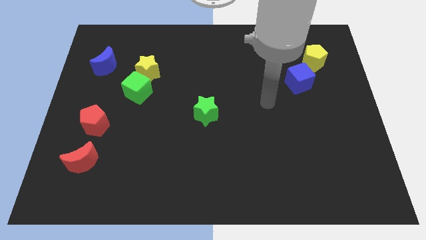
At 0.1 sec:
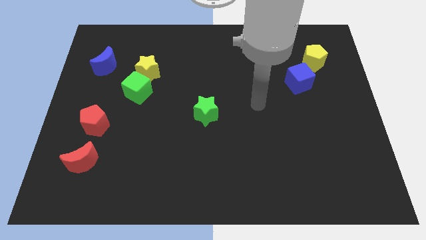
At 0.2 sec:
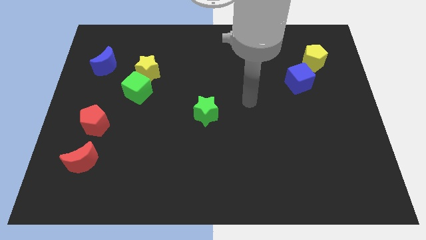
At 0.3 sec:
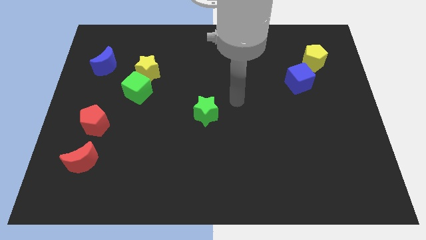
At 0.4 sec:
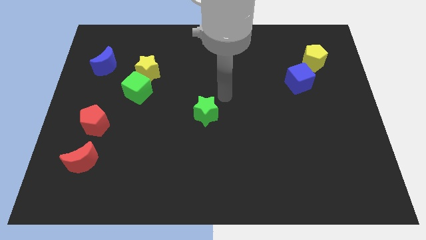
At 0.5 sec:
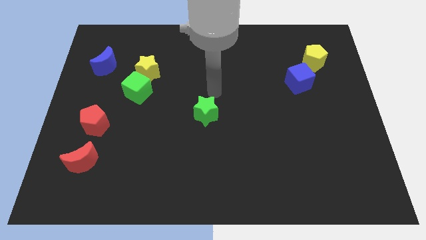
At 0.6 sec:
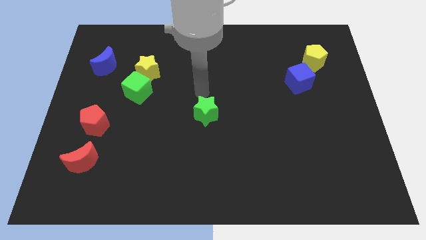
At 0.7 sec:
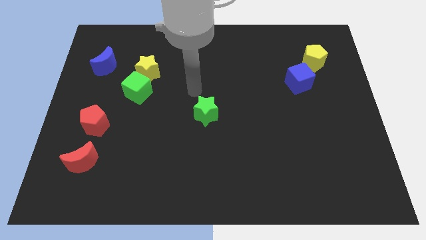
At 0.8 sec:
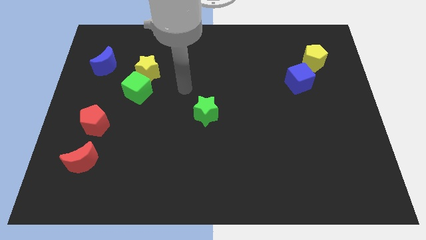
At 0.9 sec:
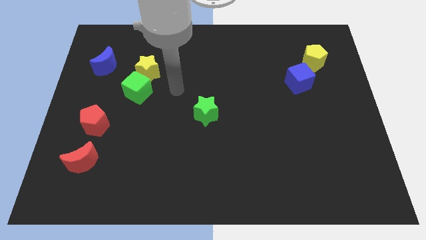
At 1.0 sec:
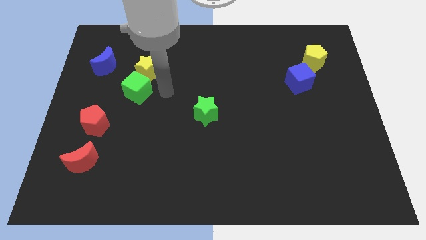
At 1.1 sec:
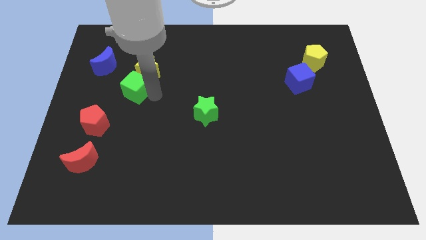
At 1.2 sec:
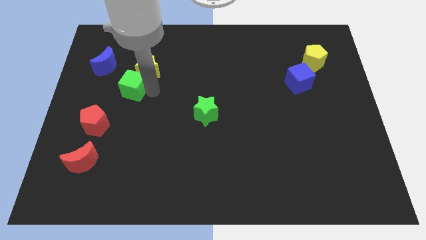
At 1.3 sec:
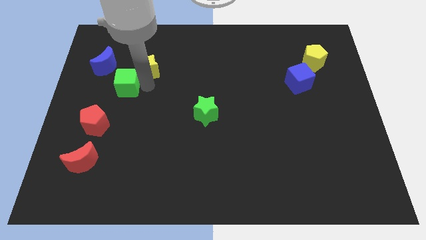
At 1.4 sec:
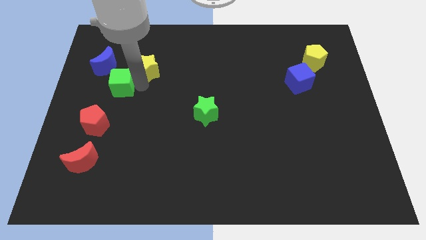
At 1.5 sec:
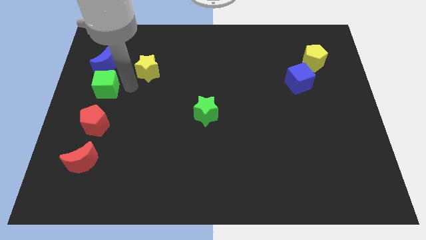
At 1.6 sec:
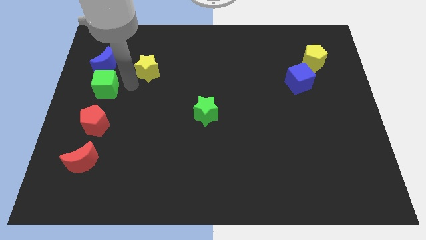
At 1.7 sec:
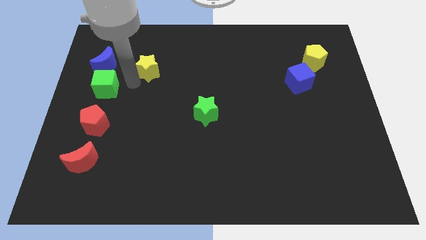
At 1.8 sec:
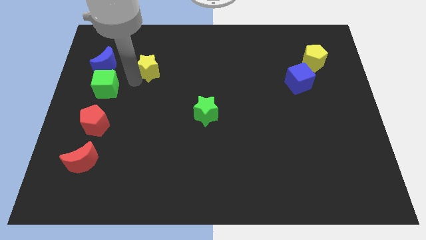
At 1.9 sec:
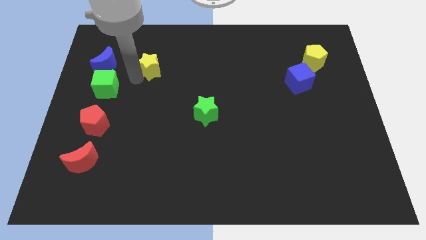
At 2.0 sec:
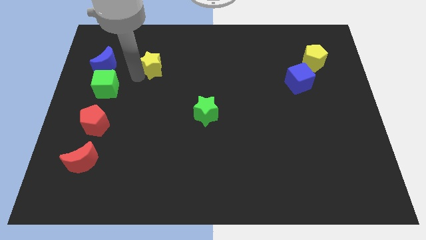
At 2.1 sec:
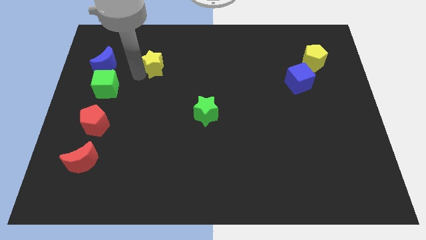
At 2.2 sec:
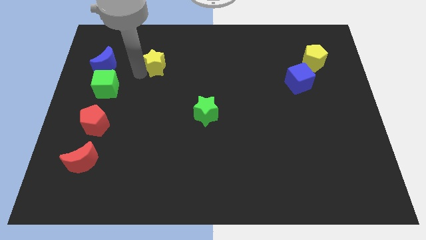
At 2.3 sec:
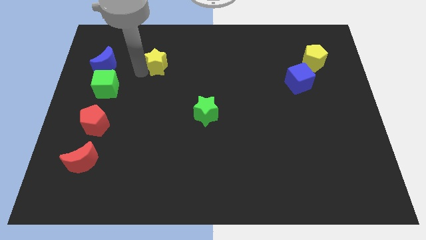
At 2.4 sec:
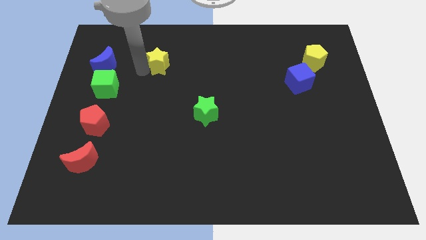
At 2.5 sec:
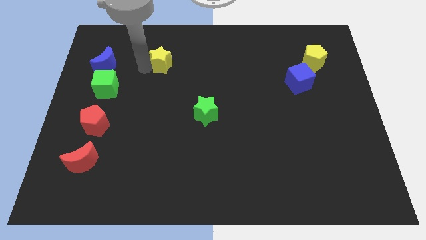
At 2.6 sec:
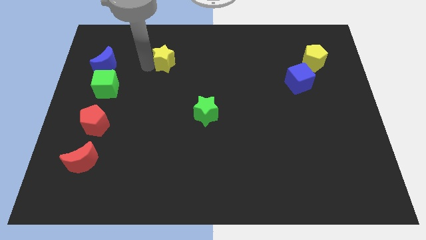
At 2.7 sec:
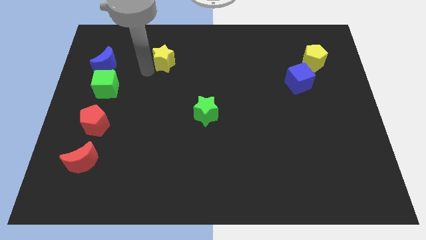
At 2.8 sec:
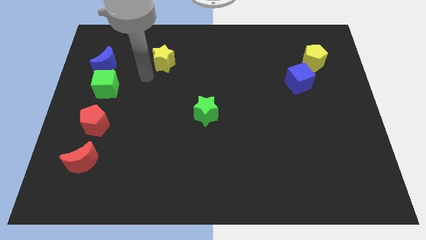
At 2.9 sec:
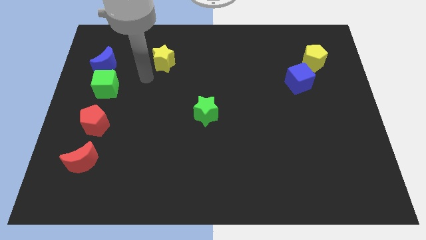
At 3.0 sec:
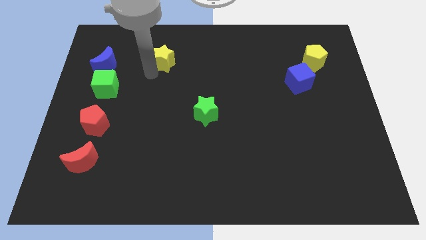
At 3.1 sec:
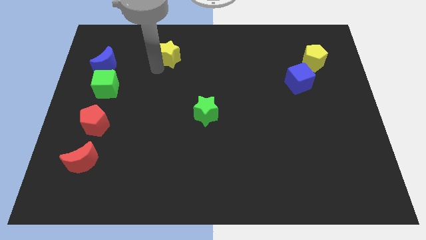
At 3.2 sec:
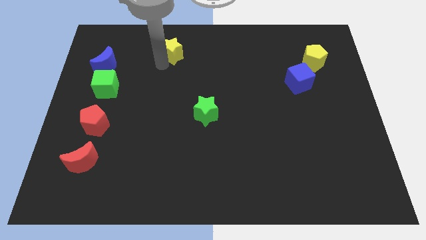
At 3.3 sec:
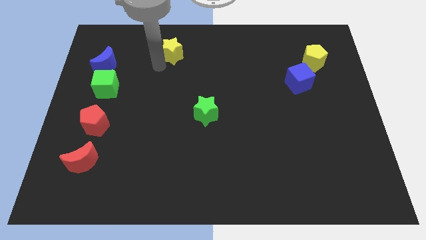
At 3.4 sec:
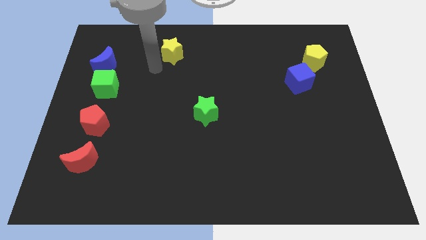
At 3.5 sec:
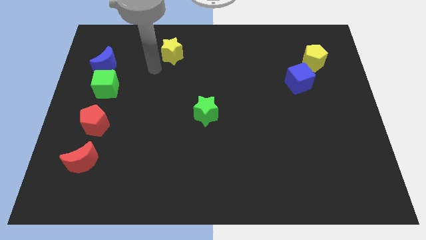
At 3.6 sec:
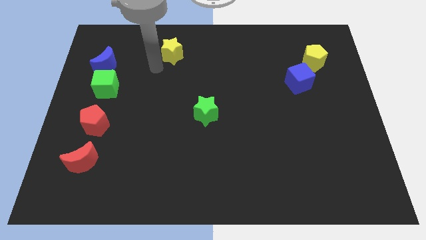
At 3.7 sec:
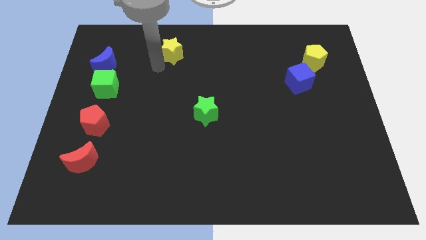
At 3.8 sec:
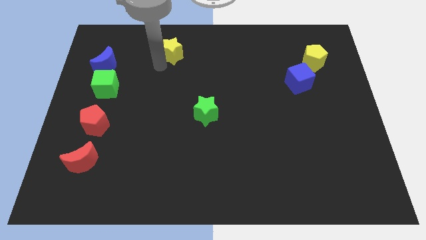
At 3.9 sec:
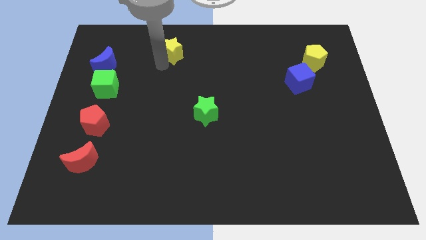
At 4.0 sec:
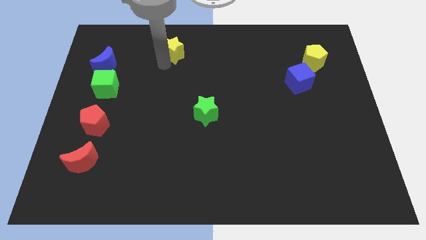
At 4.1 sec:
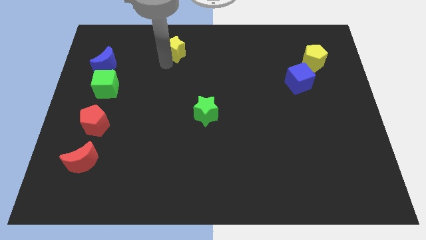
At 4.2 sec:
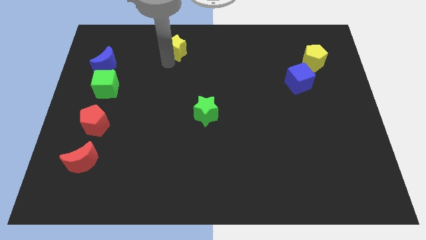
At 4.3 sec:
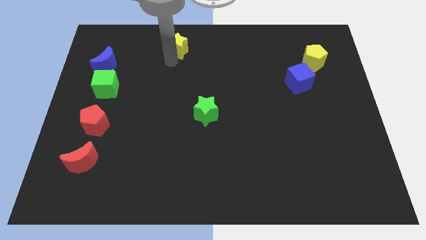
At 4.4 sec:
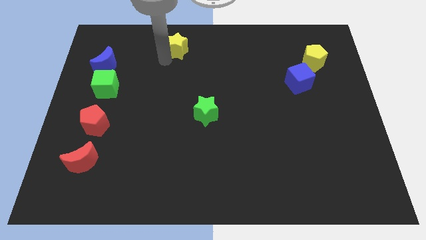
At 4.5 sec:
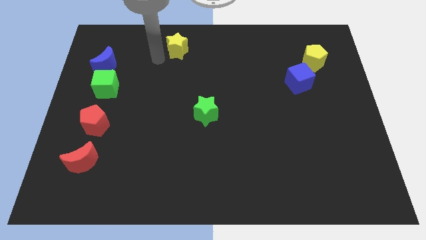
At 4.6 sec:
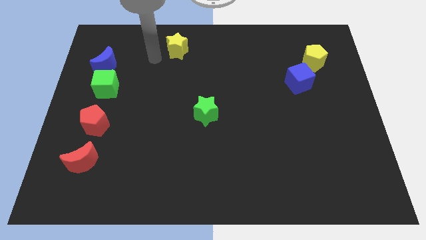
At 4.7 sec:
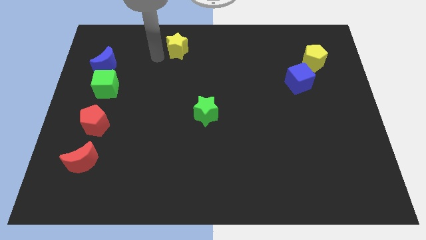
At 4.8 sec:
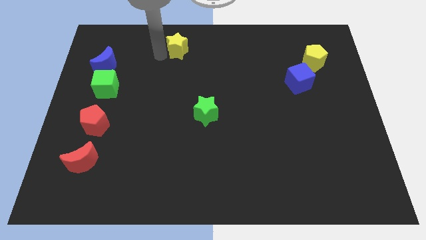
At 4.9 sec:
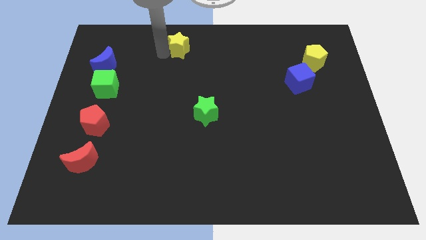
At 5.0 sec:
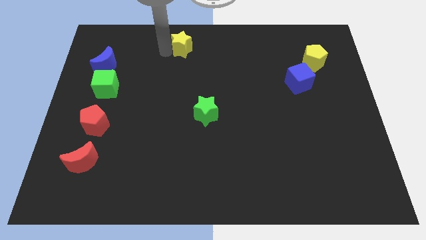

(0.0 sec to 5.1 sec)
put the yellow star to the towards your base

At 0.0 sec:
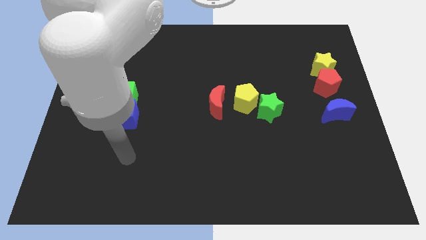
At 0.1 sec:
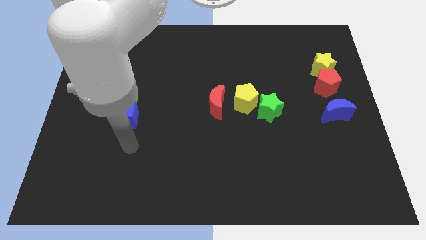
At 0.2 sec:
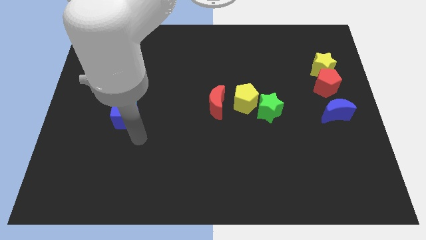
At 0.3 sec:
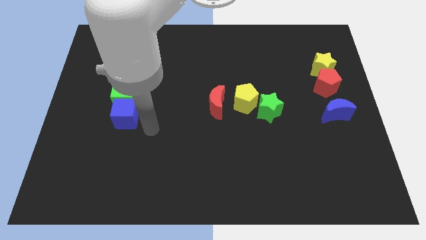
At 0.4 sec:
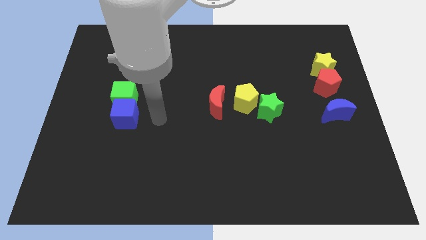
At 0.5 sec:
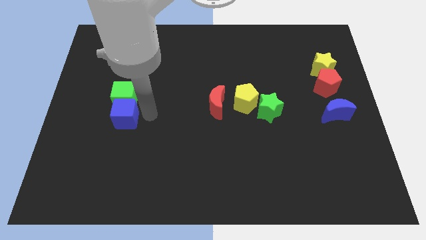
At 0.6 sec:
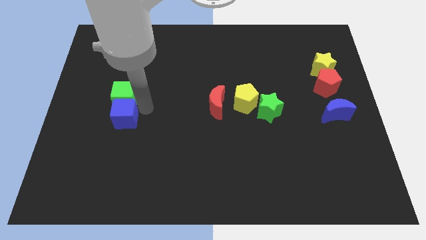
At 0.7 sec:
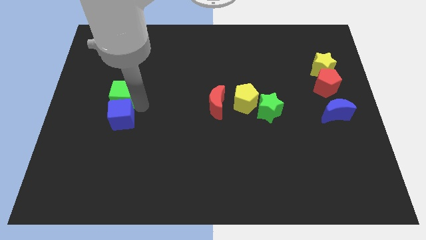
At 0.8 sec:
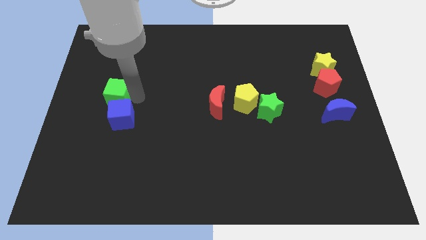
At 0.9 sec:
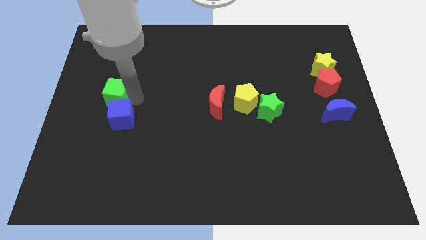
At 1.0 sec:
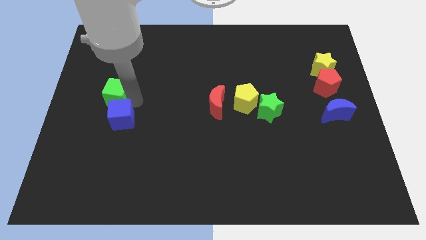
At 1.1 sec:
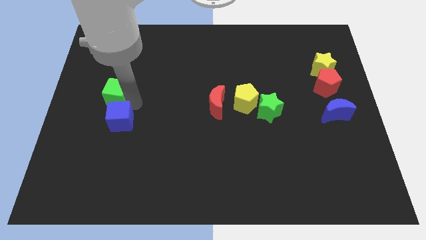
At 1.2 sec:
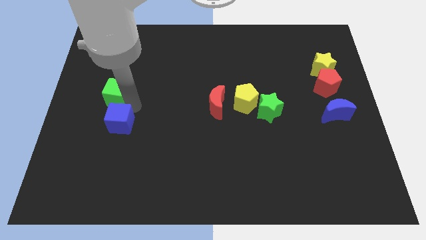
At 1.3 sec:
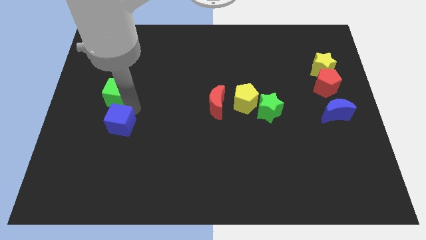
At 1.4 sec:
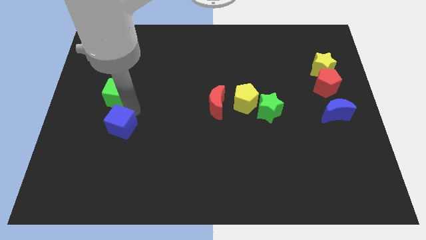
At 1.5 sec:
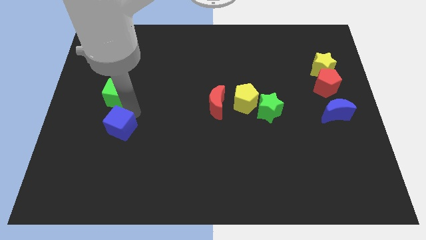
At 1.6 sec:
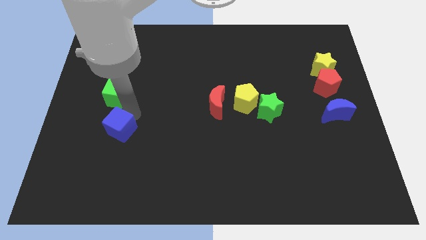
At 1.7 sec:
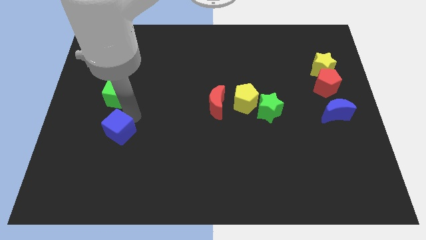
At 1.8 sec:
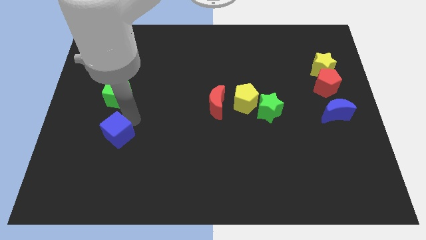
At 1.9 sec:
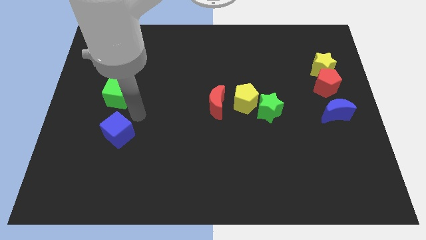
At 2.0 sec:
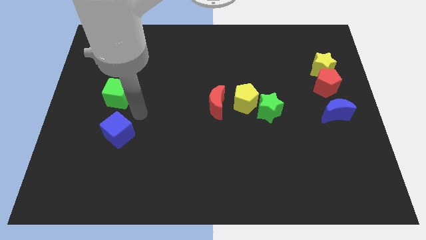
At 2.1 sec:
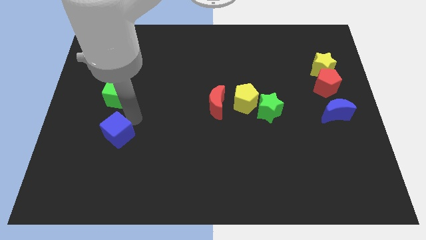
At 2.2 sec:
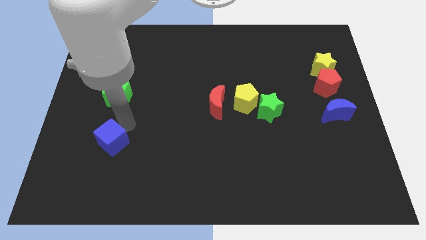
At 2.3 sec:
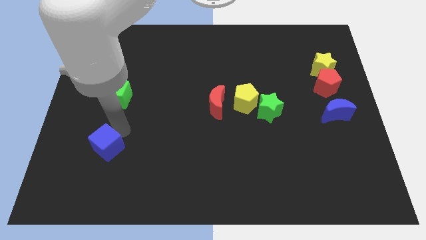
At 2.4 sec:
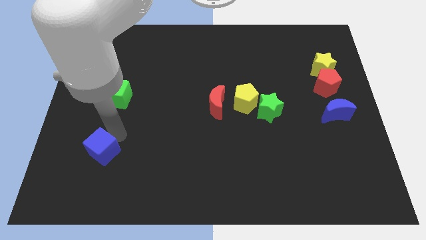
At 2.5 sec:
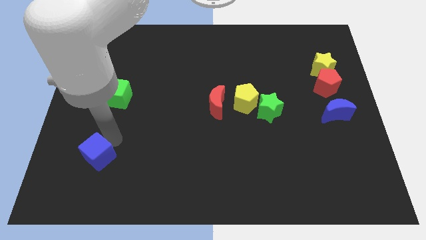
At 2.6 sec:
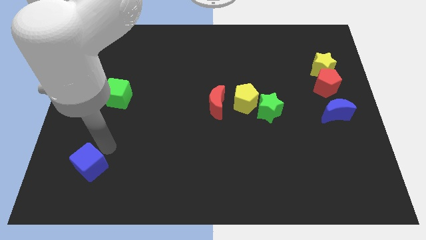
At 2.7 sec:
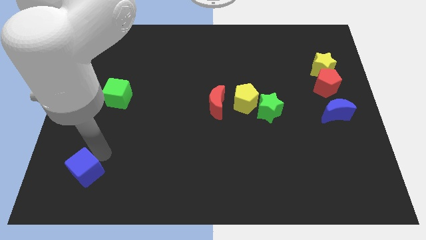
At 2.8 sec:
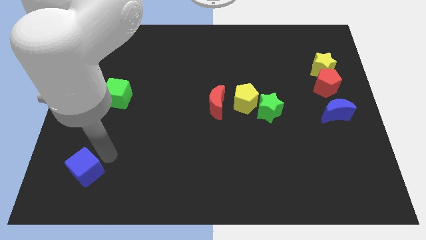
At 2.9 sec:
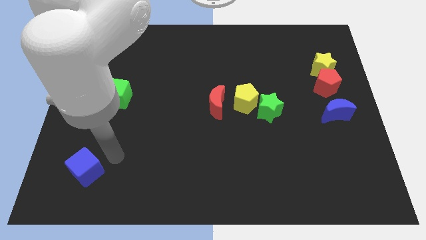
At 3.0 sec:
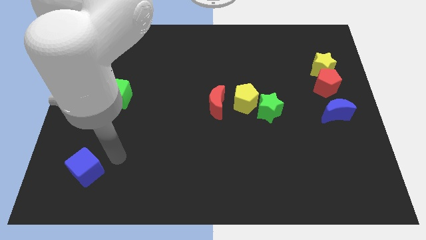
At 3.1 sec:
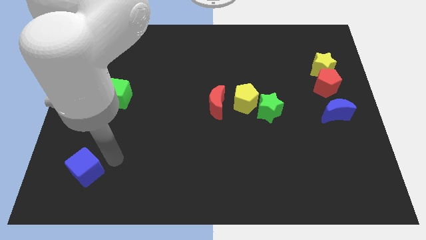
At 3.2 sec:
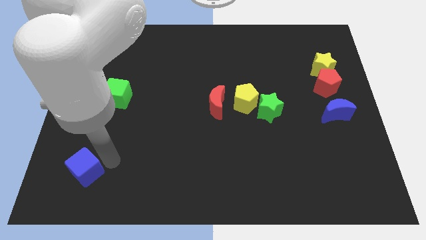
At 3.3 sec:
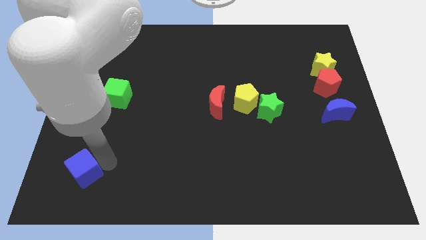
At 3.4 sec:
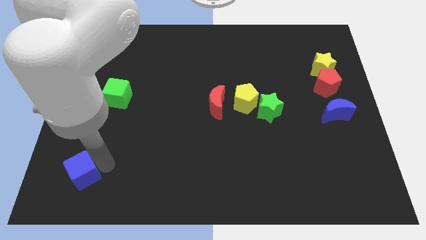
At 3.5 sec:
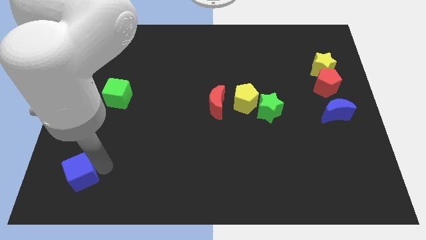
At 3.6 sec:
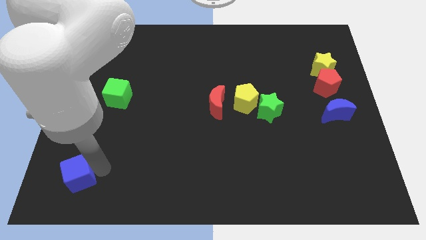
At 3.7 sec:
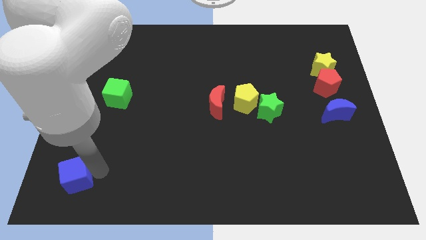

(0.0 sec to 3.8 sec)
move the blue cube to the bottom left of the board
